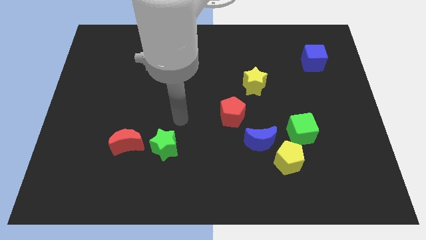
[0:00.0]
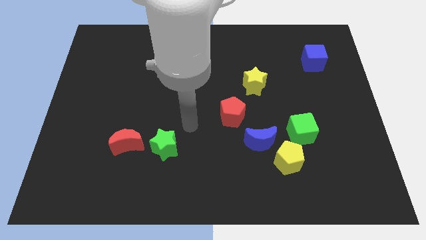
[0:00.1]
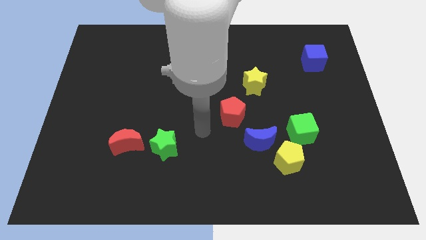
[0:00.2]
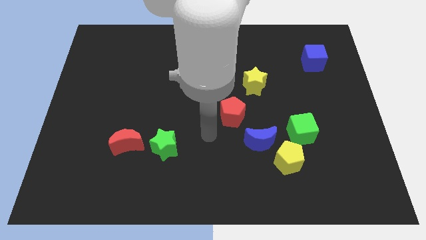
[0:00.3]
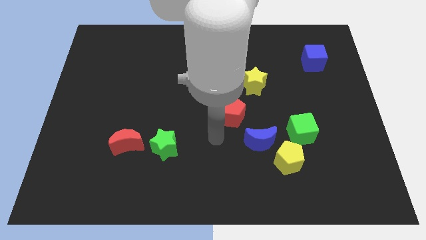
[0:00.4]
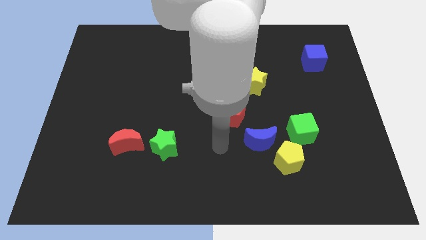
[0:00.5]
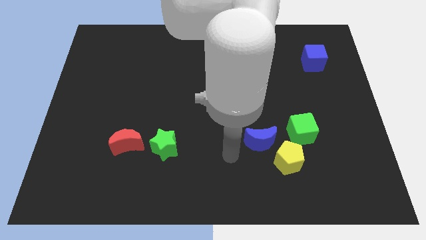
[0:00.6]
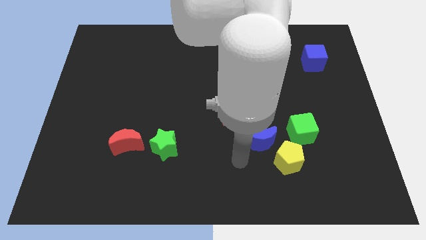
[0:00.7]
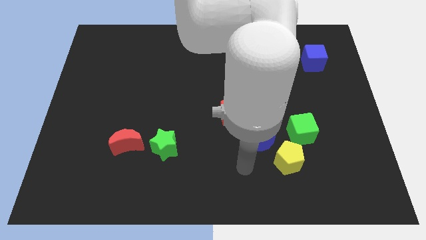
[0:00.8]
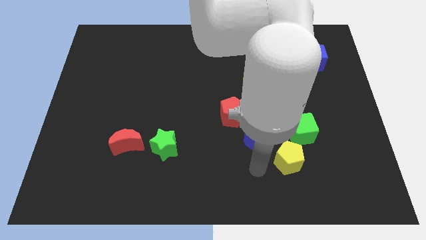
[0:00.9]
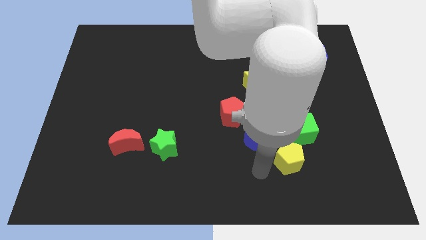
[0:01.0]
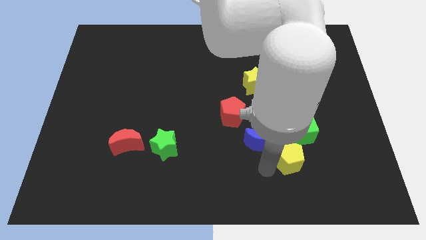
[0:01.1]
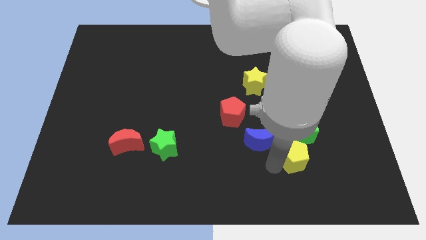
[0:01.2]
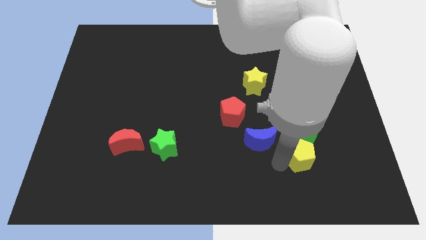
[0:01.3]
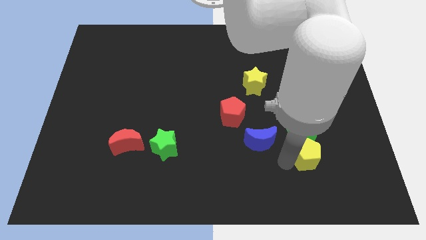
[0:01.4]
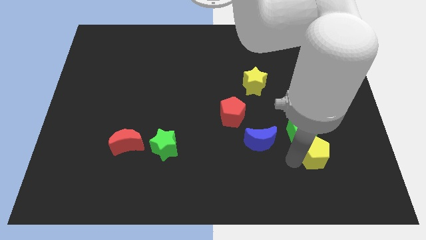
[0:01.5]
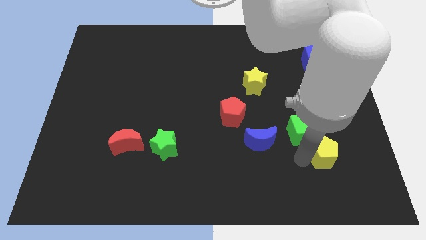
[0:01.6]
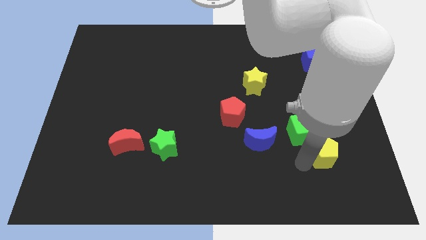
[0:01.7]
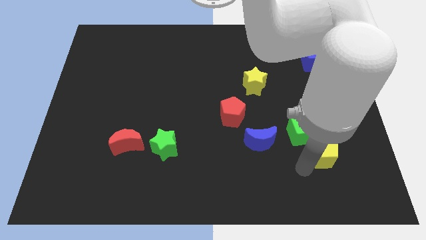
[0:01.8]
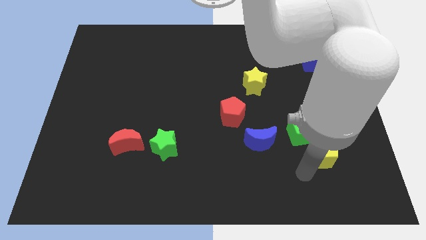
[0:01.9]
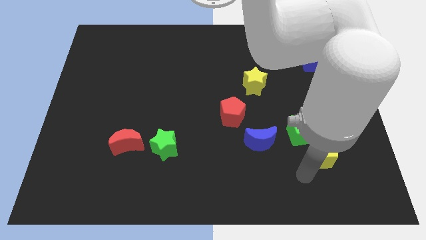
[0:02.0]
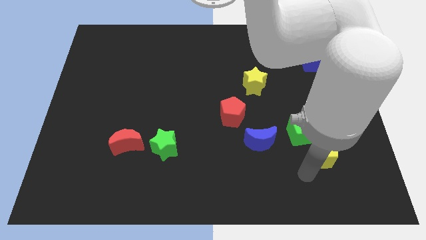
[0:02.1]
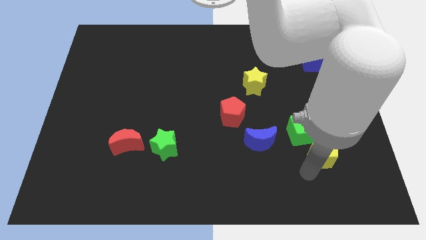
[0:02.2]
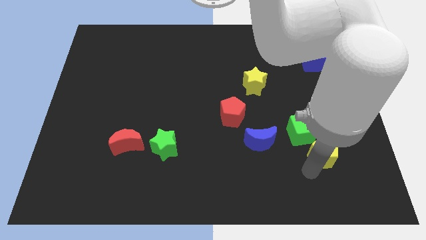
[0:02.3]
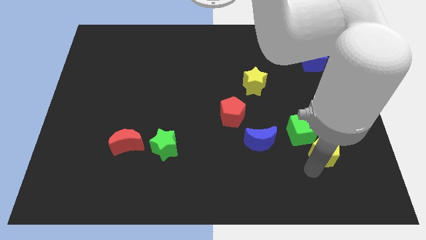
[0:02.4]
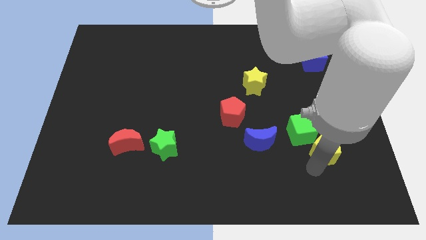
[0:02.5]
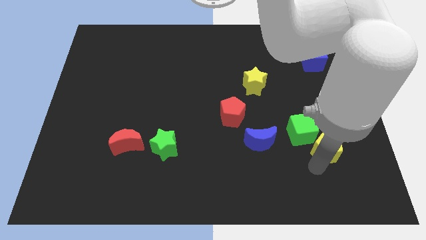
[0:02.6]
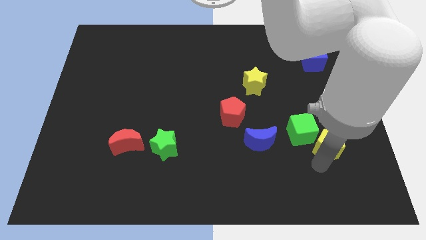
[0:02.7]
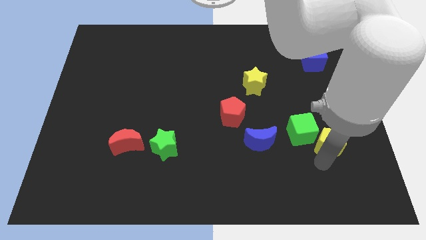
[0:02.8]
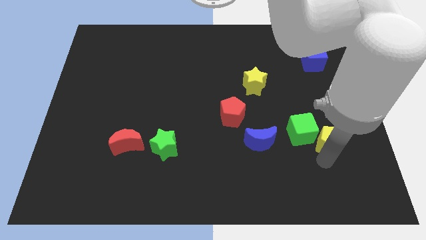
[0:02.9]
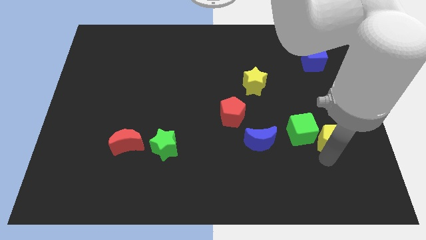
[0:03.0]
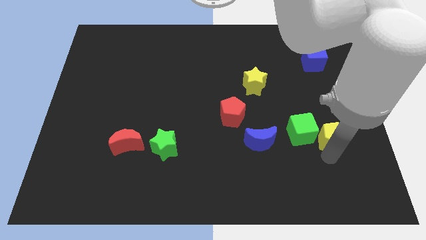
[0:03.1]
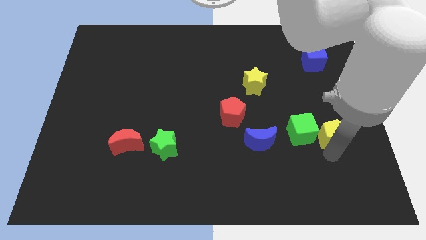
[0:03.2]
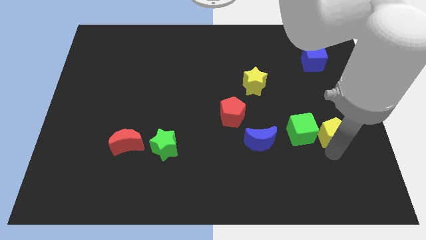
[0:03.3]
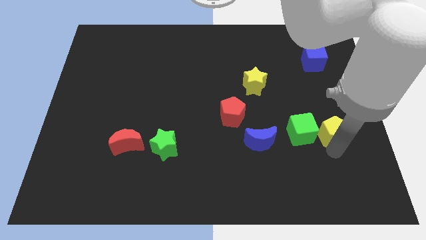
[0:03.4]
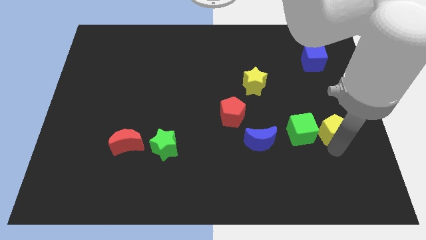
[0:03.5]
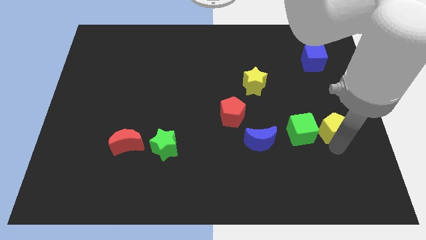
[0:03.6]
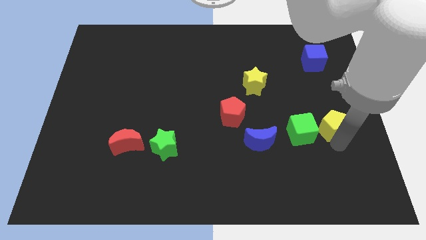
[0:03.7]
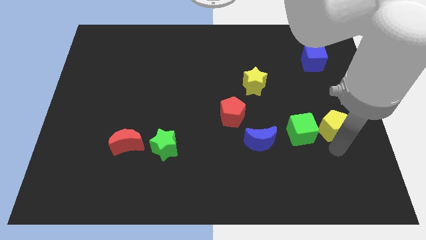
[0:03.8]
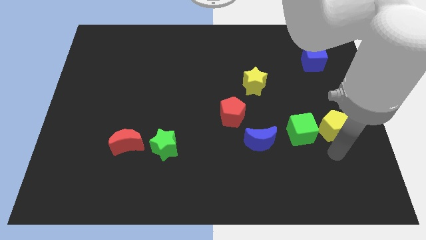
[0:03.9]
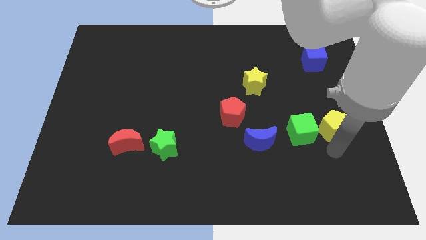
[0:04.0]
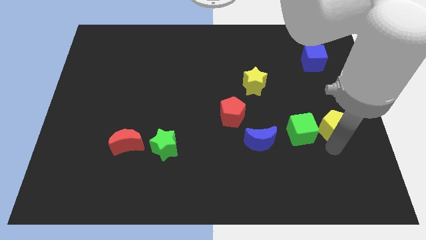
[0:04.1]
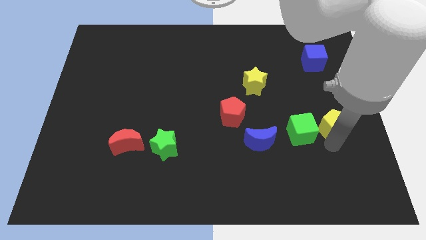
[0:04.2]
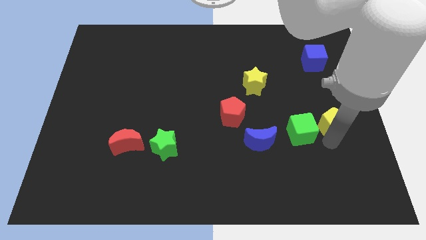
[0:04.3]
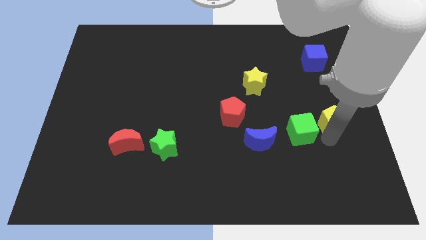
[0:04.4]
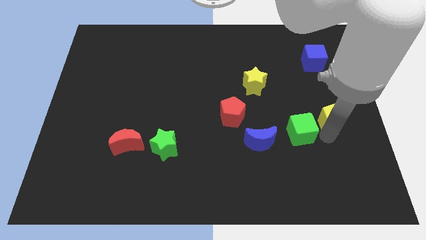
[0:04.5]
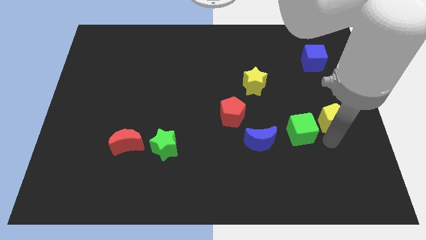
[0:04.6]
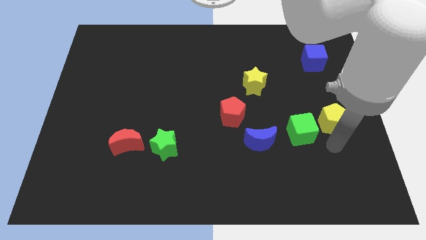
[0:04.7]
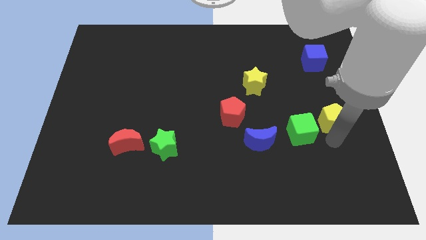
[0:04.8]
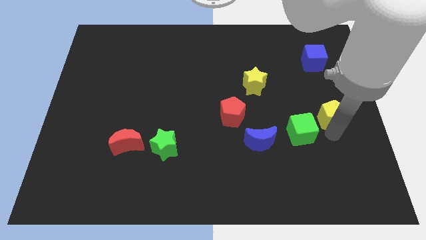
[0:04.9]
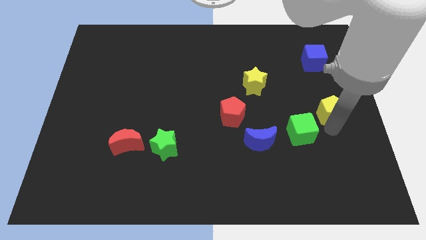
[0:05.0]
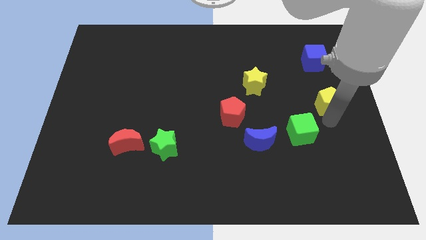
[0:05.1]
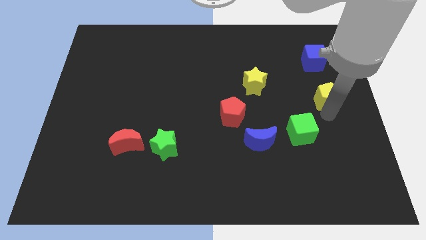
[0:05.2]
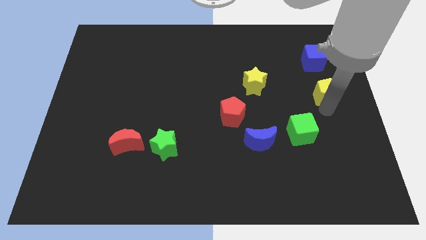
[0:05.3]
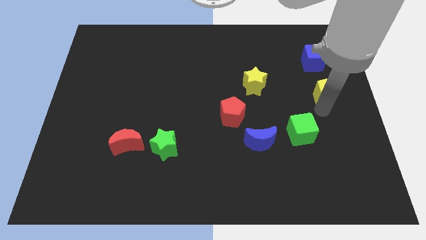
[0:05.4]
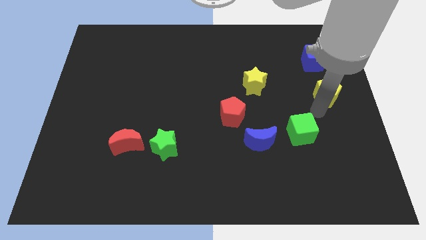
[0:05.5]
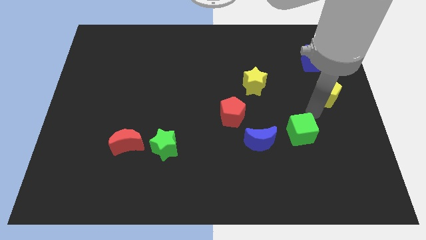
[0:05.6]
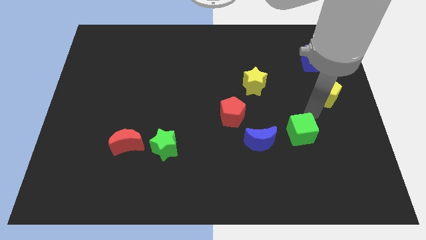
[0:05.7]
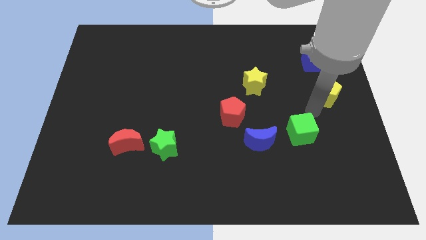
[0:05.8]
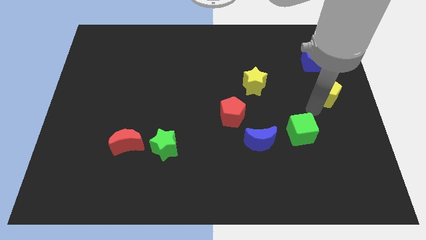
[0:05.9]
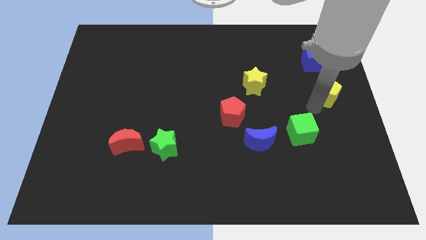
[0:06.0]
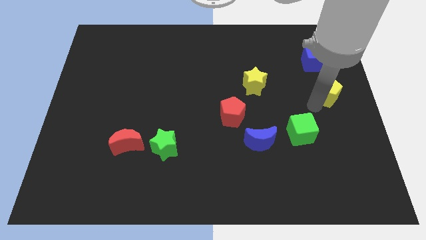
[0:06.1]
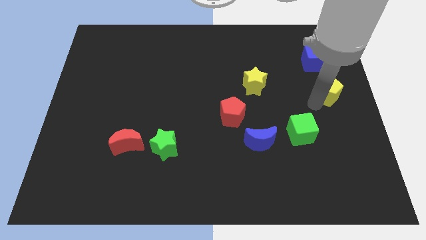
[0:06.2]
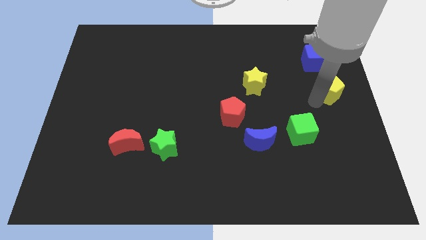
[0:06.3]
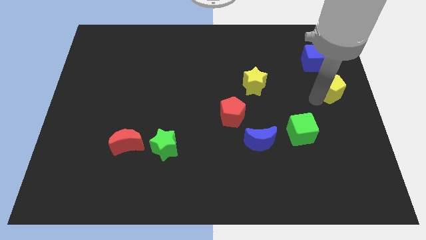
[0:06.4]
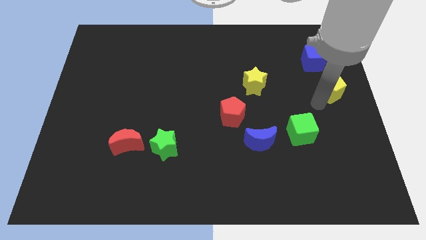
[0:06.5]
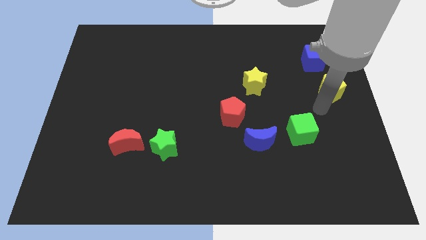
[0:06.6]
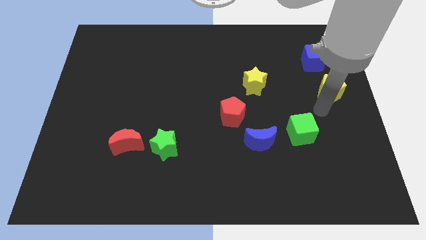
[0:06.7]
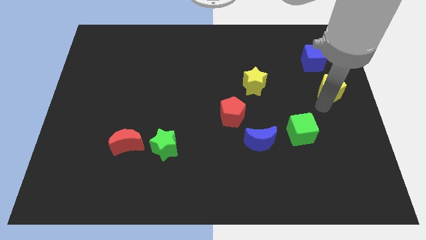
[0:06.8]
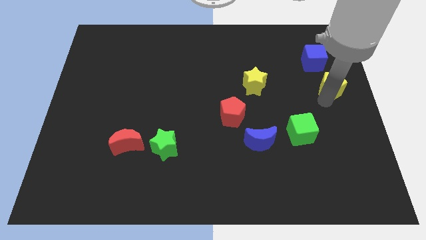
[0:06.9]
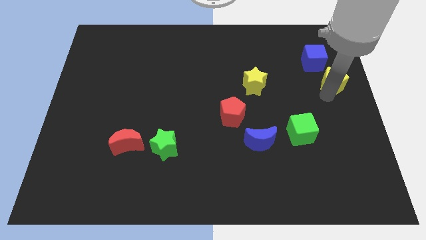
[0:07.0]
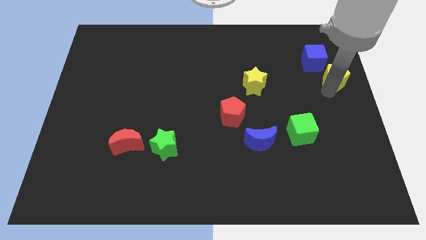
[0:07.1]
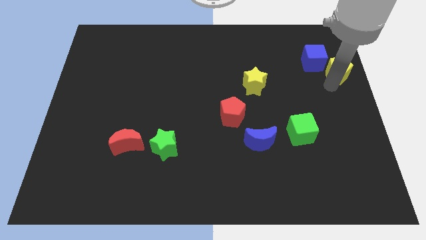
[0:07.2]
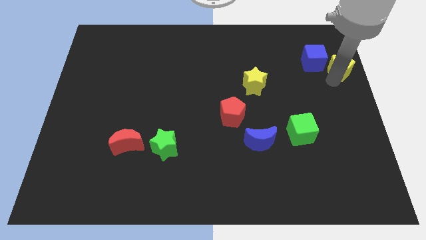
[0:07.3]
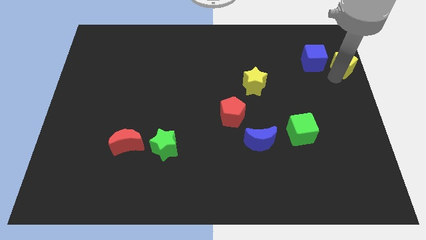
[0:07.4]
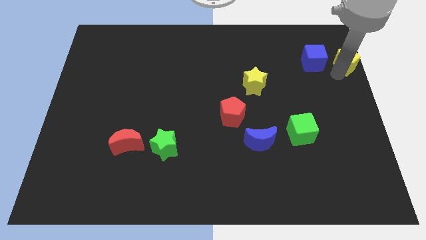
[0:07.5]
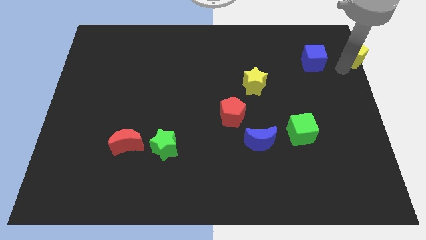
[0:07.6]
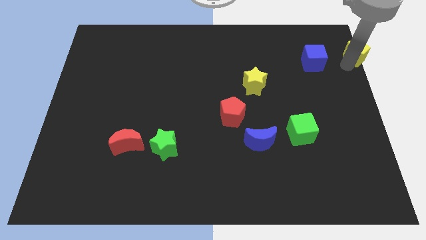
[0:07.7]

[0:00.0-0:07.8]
slide the yellow pentagon to the top right
